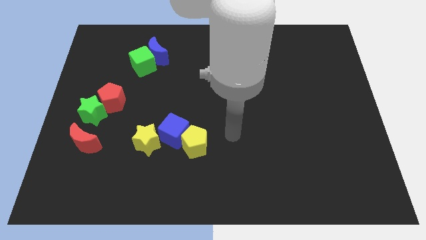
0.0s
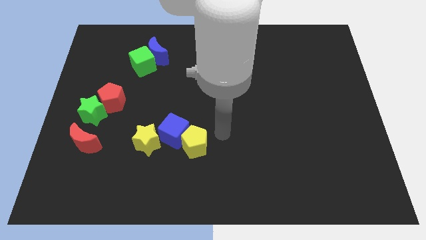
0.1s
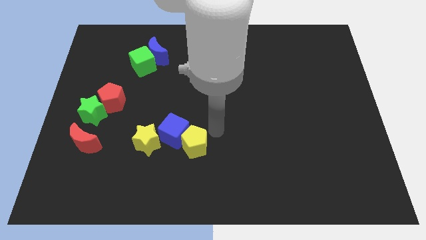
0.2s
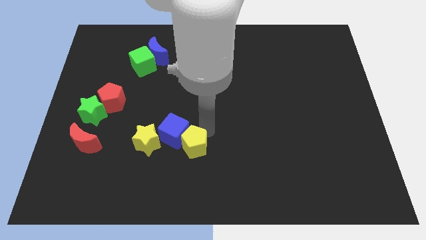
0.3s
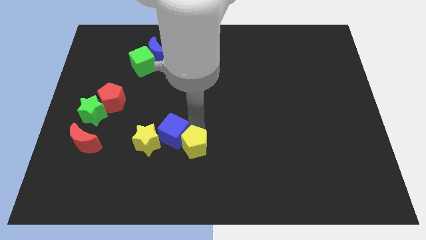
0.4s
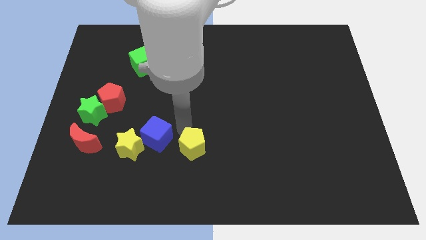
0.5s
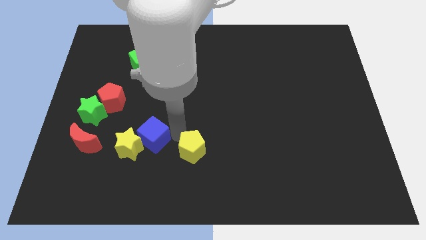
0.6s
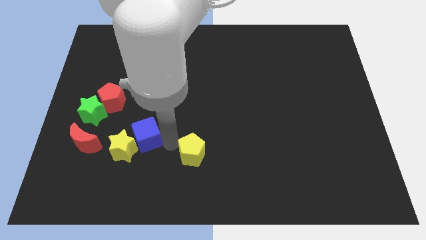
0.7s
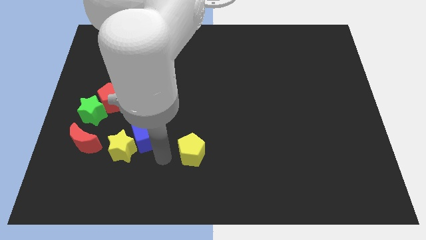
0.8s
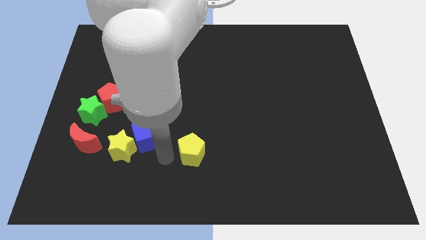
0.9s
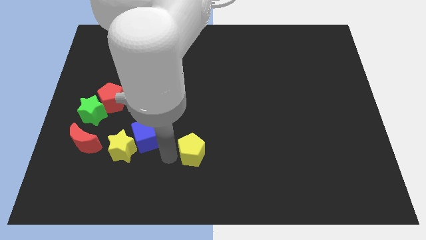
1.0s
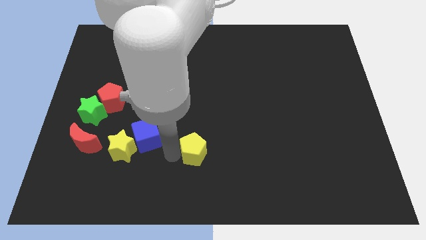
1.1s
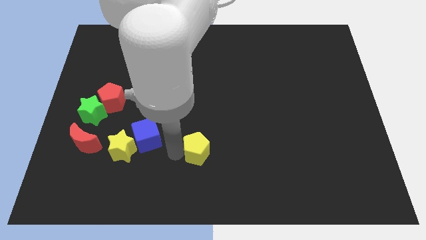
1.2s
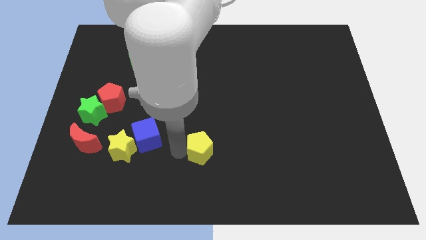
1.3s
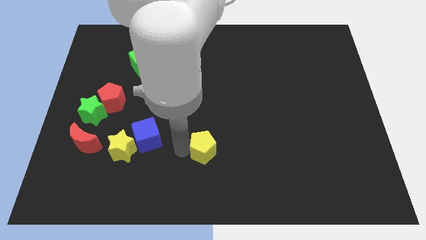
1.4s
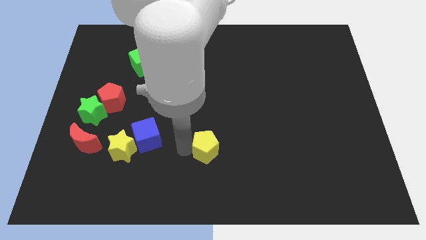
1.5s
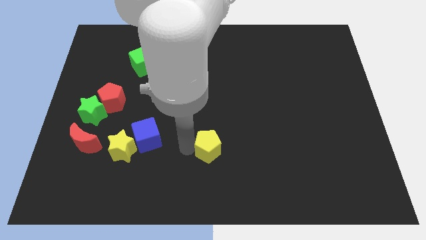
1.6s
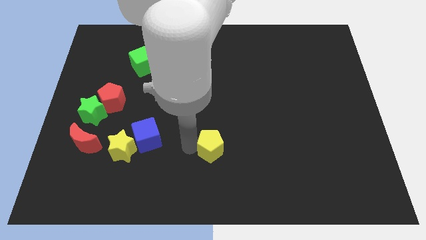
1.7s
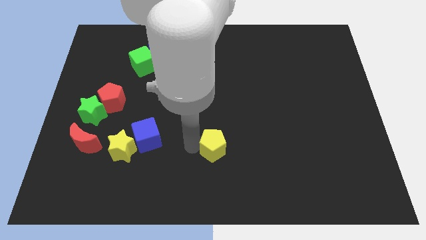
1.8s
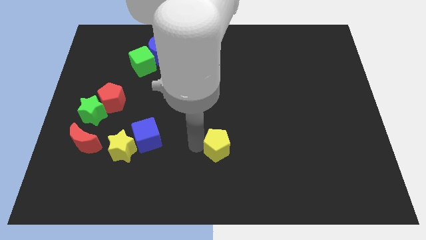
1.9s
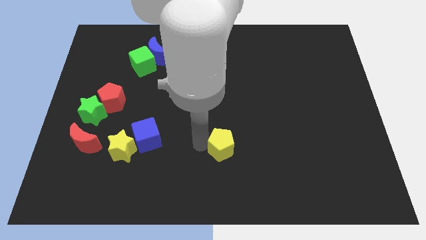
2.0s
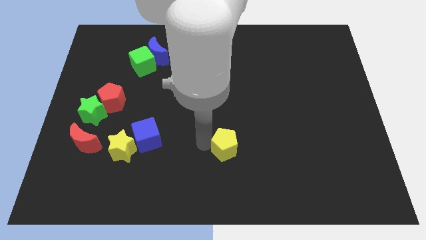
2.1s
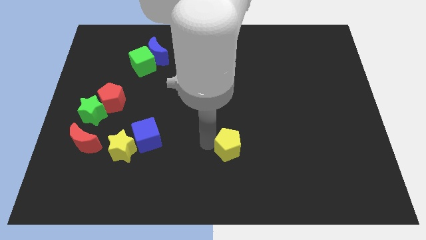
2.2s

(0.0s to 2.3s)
slightly push the yellow pentagon to the right

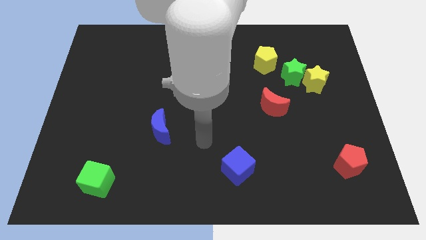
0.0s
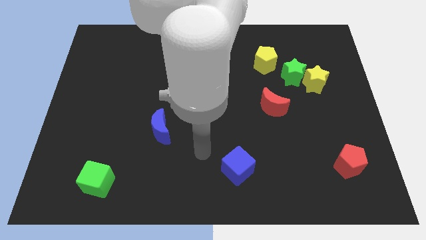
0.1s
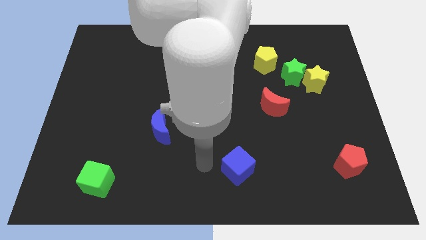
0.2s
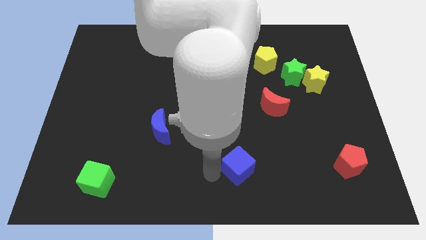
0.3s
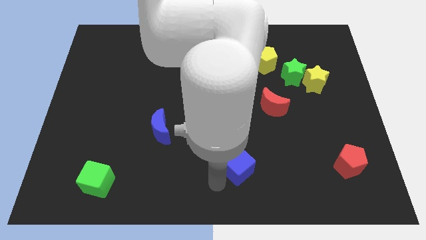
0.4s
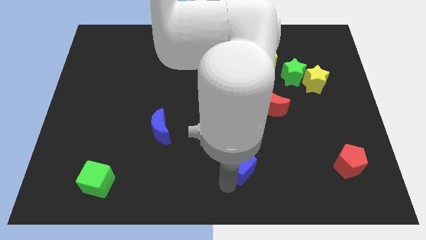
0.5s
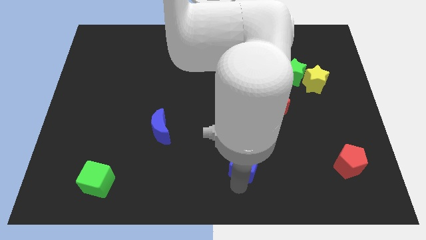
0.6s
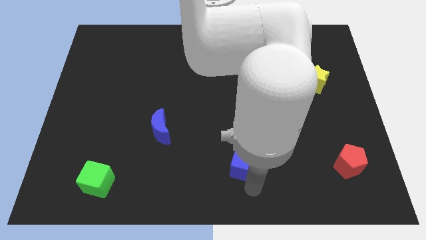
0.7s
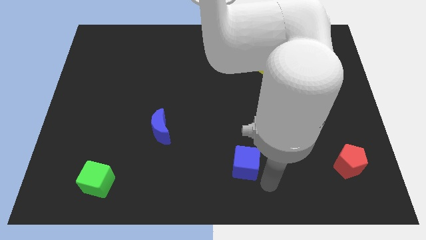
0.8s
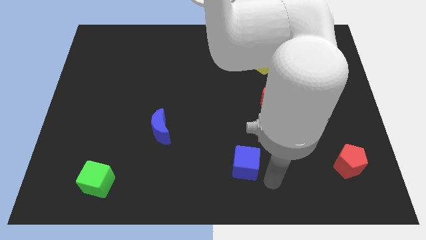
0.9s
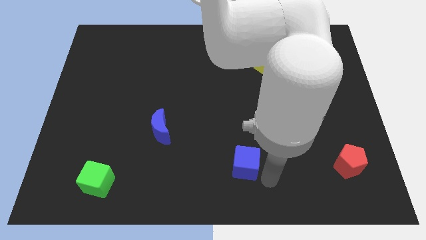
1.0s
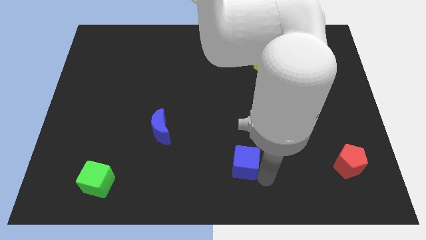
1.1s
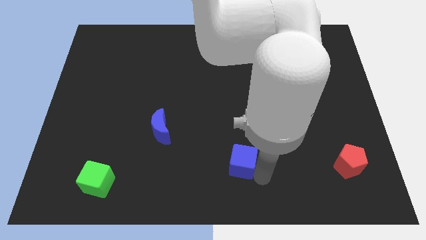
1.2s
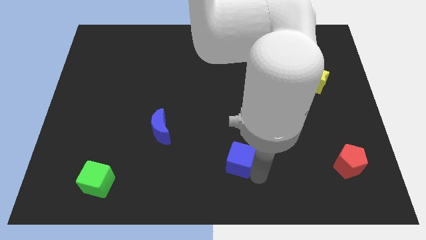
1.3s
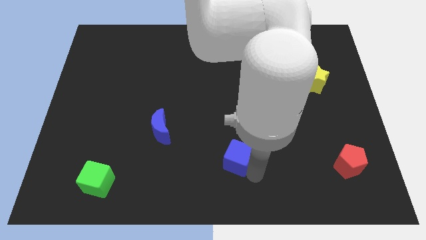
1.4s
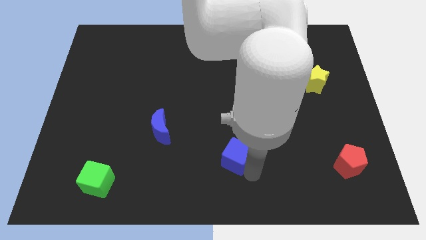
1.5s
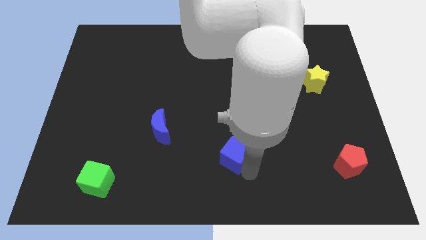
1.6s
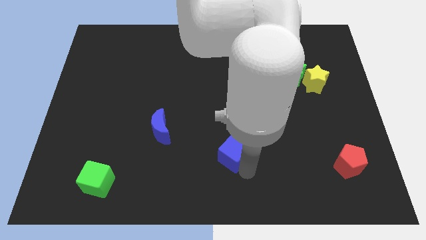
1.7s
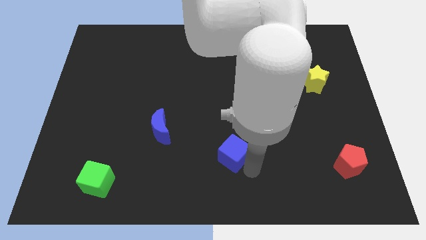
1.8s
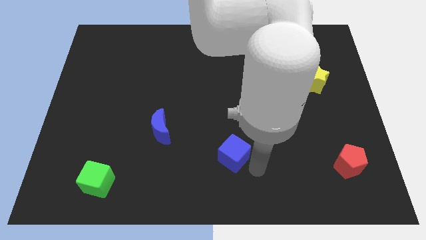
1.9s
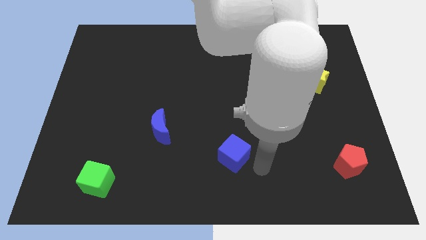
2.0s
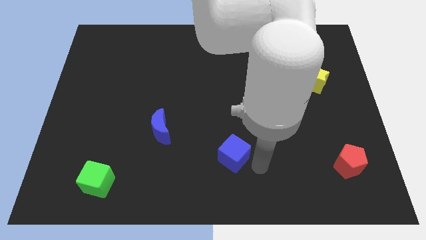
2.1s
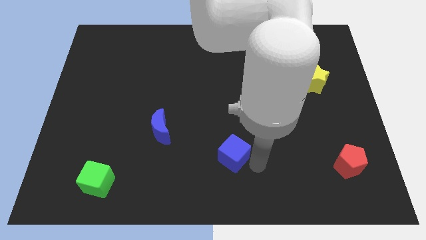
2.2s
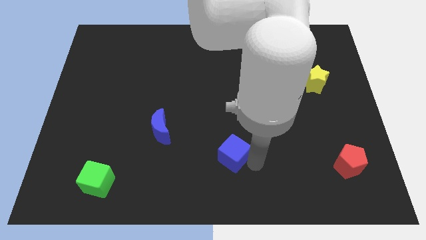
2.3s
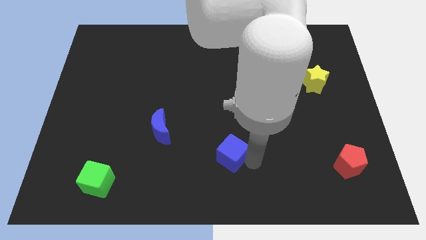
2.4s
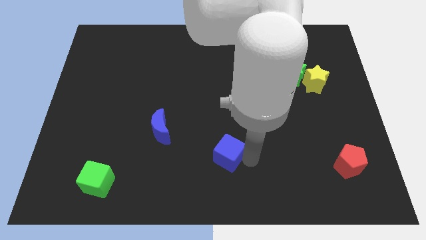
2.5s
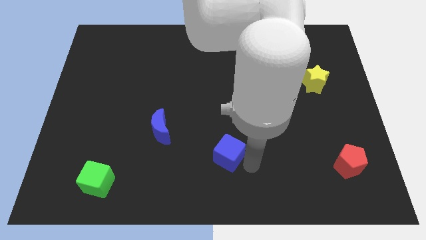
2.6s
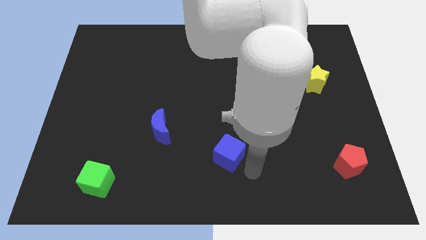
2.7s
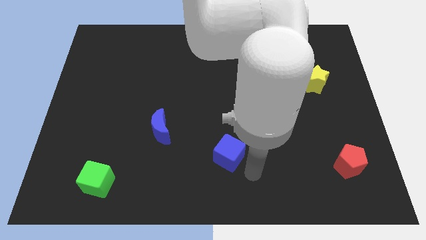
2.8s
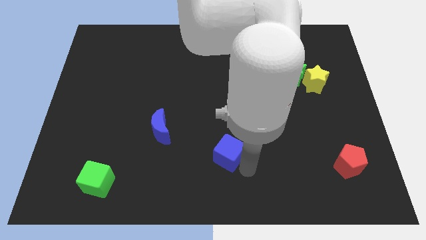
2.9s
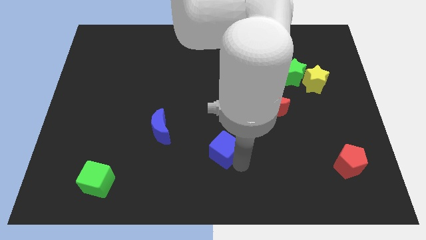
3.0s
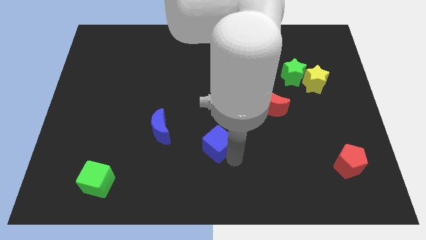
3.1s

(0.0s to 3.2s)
slightly move the blue cube diagonally up and left

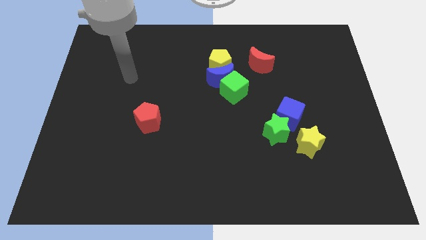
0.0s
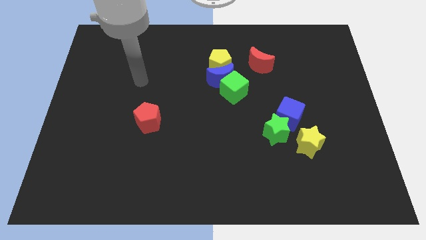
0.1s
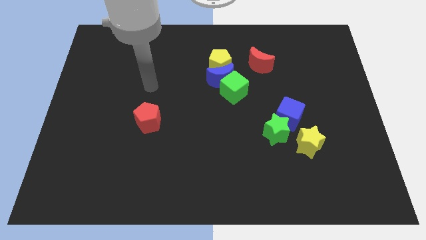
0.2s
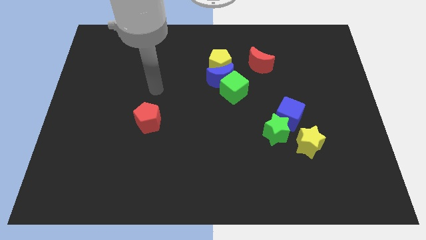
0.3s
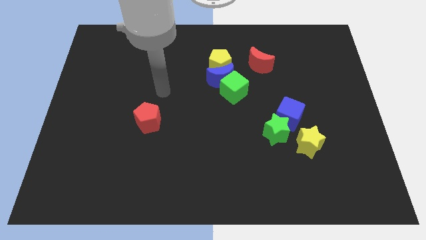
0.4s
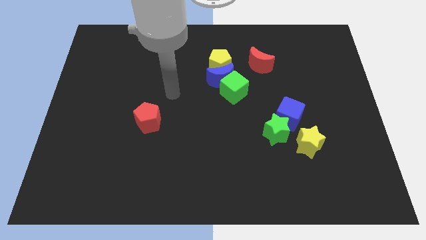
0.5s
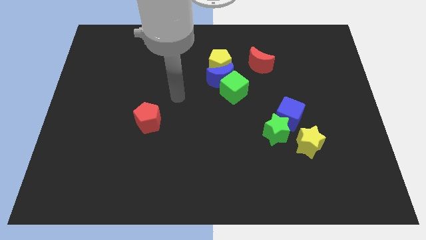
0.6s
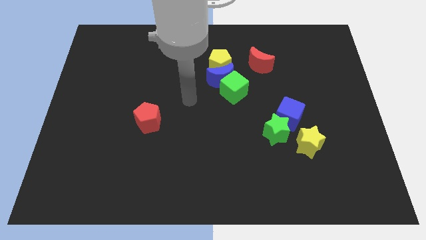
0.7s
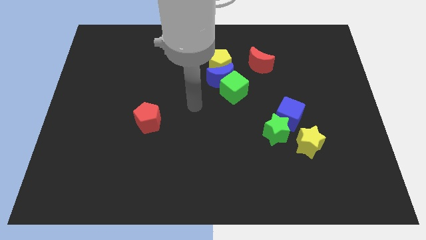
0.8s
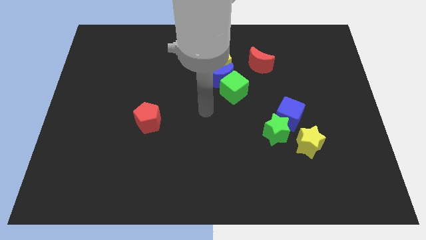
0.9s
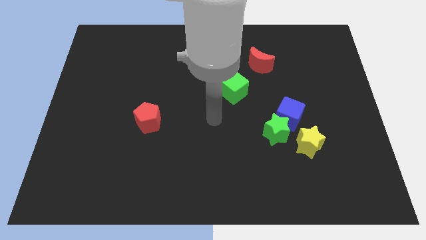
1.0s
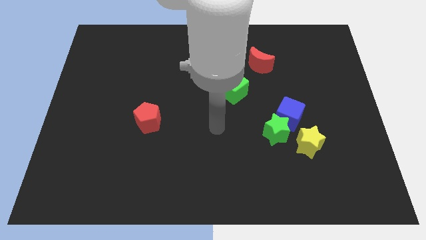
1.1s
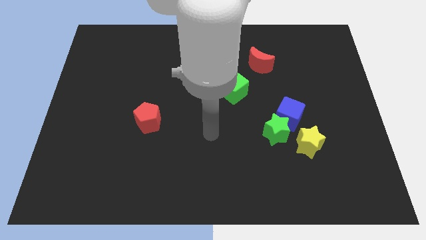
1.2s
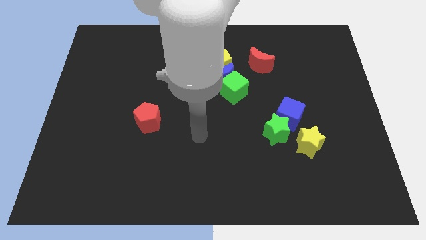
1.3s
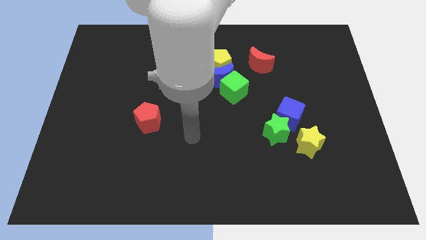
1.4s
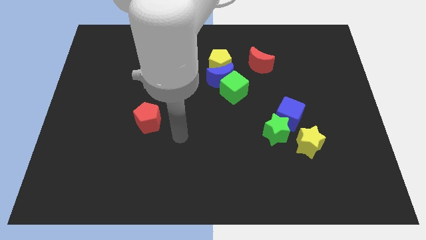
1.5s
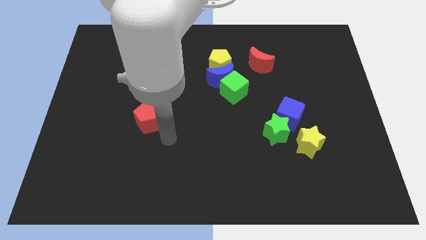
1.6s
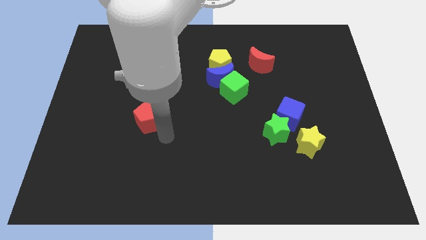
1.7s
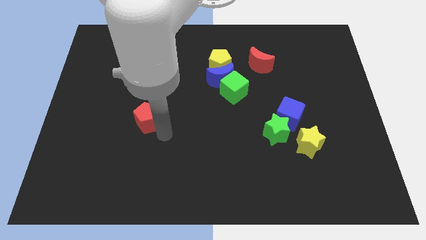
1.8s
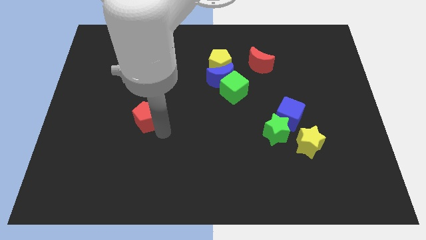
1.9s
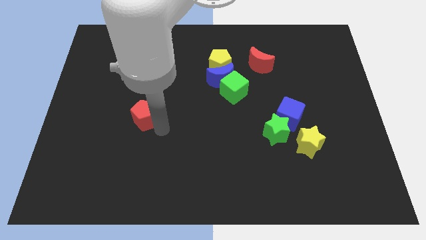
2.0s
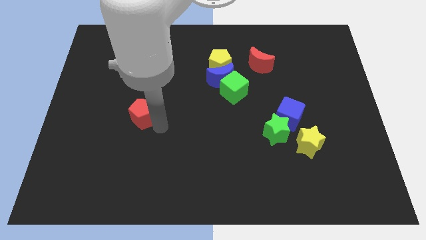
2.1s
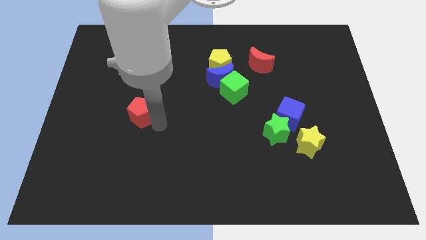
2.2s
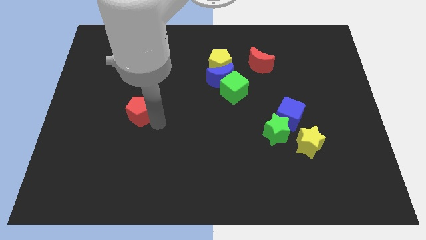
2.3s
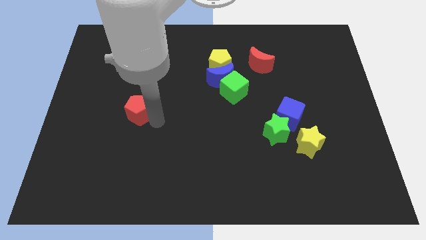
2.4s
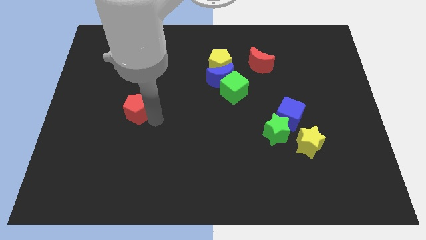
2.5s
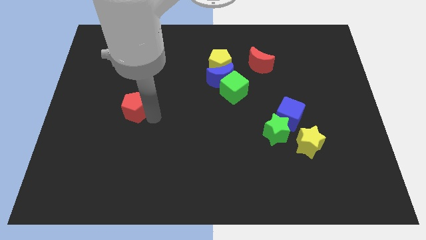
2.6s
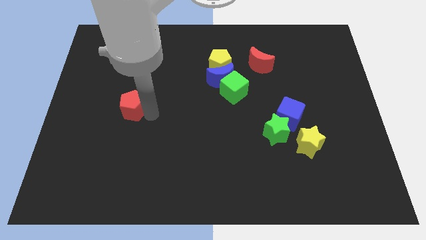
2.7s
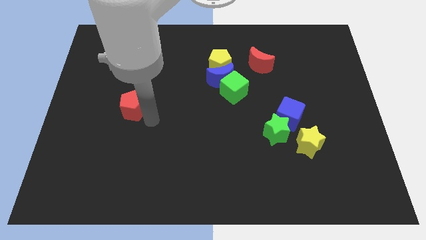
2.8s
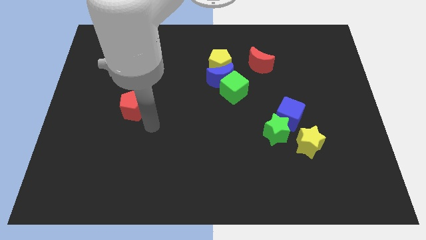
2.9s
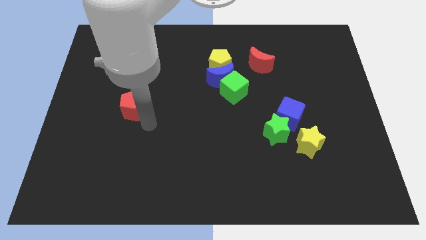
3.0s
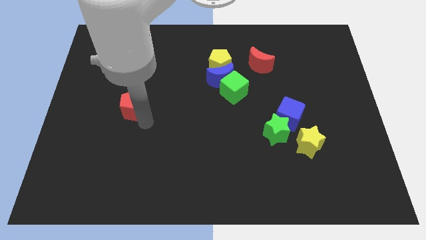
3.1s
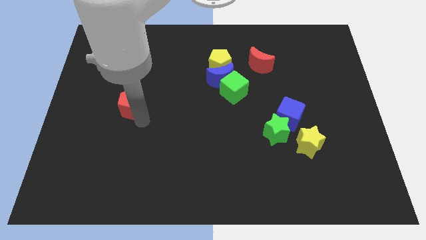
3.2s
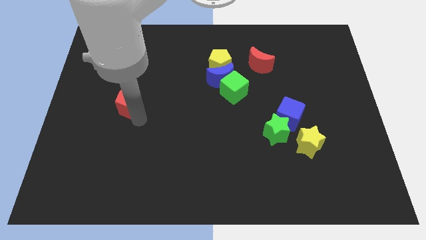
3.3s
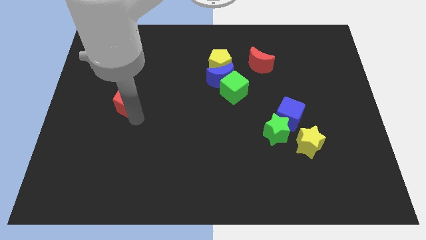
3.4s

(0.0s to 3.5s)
push the red pentagon up and then left a little bit
